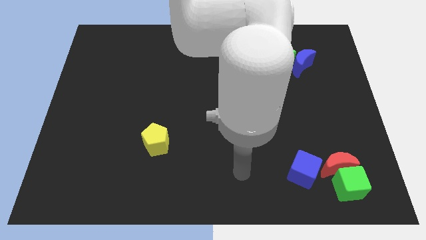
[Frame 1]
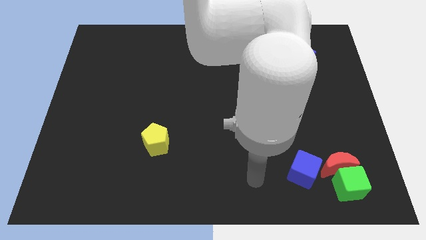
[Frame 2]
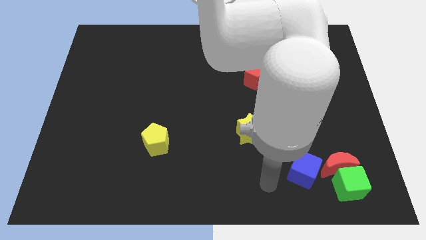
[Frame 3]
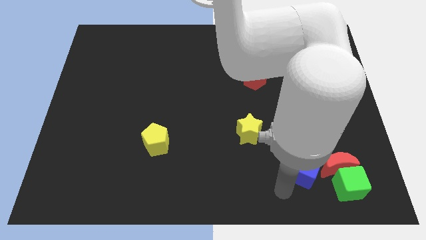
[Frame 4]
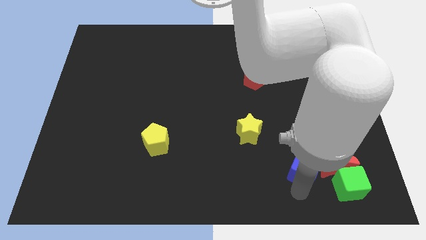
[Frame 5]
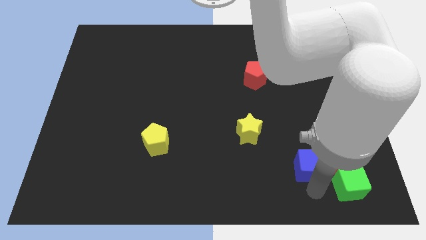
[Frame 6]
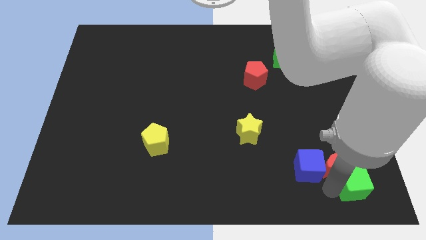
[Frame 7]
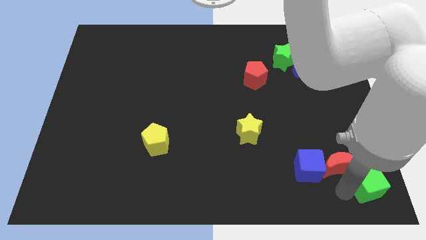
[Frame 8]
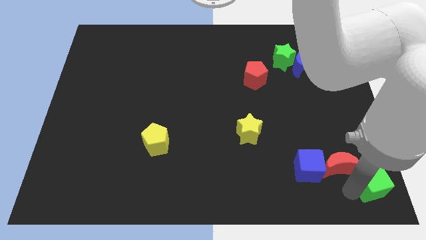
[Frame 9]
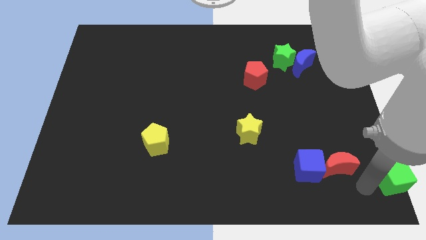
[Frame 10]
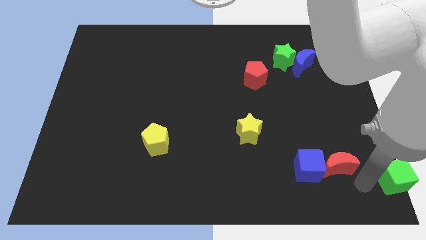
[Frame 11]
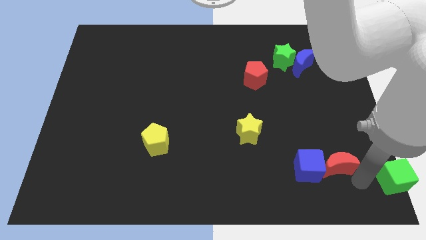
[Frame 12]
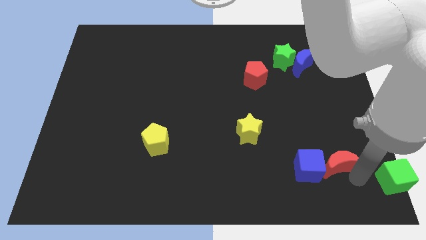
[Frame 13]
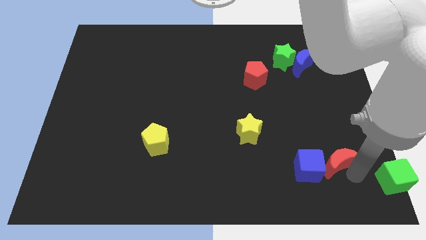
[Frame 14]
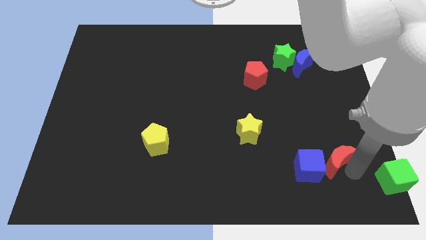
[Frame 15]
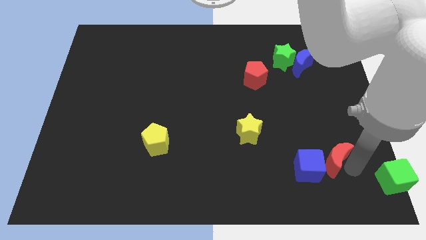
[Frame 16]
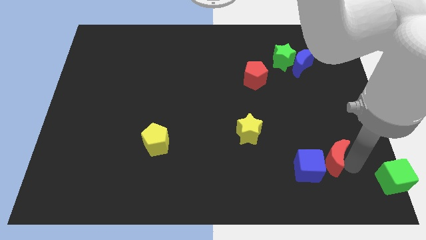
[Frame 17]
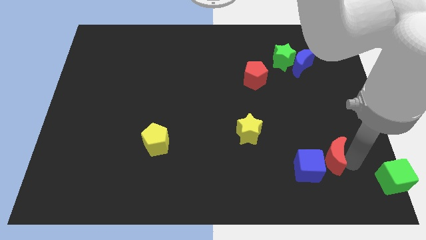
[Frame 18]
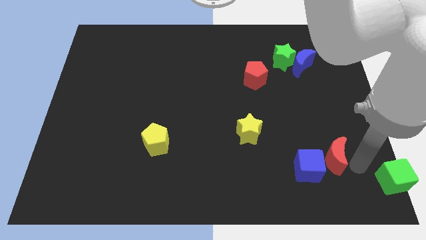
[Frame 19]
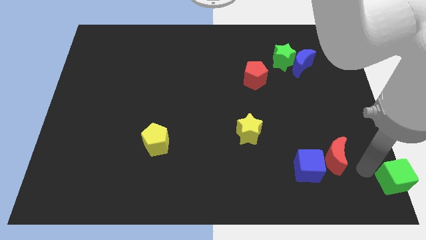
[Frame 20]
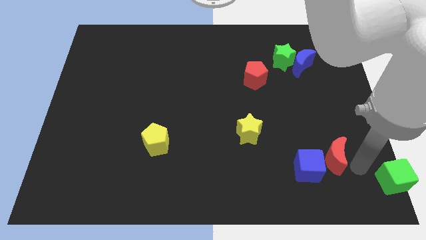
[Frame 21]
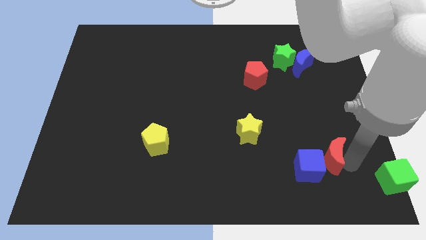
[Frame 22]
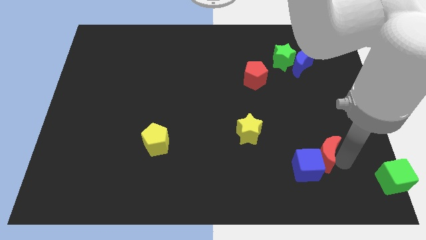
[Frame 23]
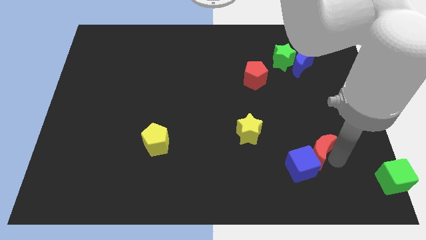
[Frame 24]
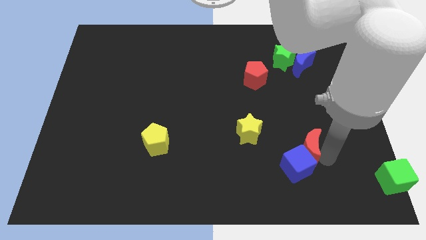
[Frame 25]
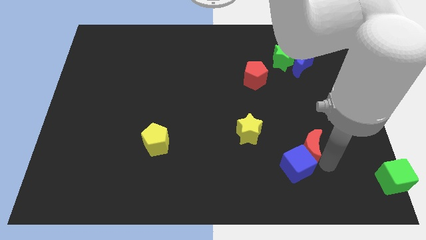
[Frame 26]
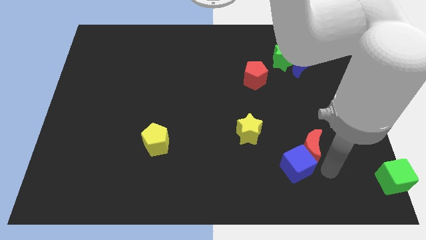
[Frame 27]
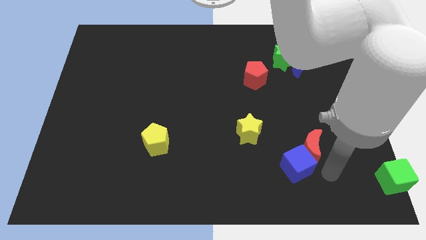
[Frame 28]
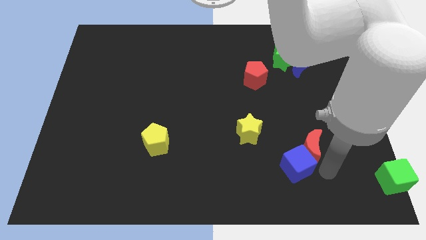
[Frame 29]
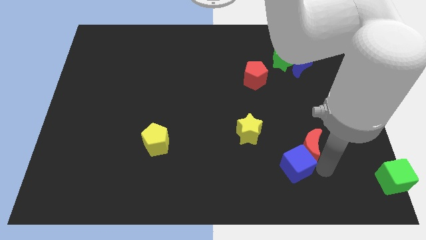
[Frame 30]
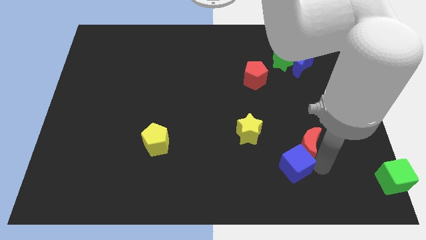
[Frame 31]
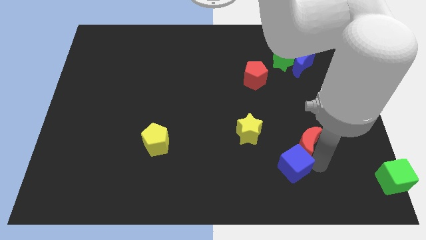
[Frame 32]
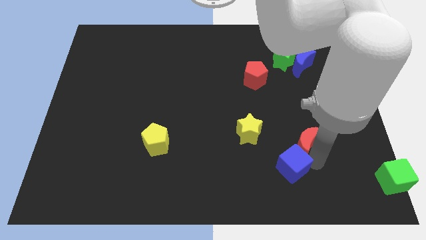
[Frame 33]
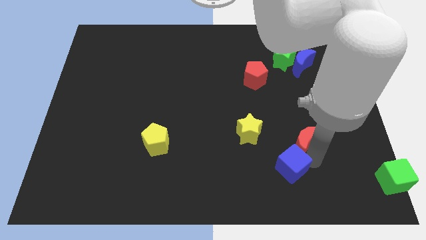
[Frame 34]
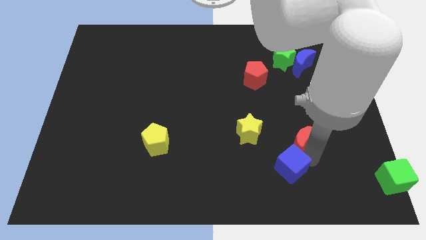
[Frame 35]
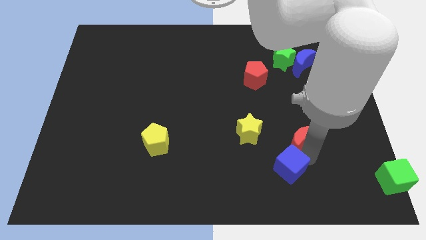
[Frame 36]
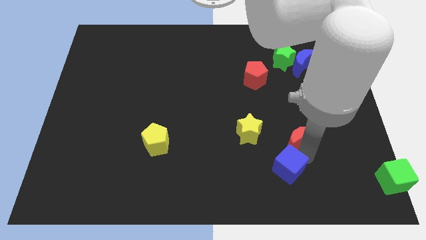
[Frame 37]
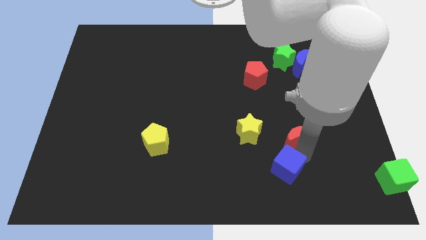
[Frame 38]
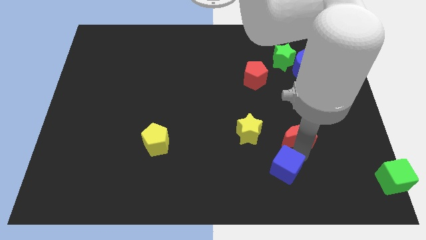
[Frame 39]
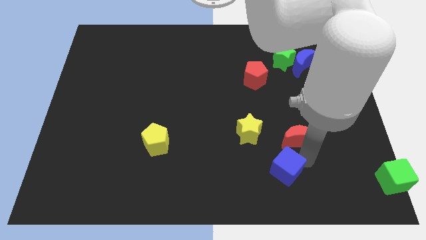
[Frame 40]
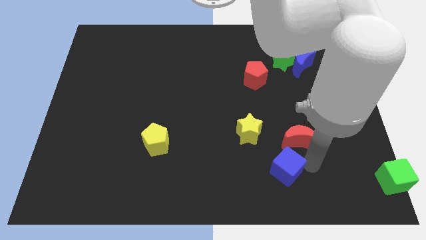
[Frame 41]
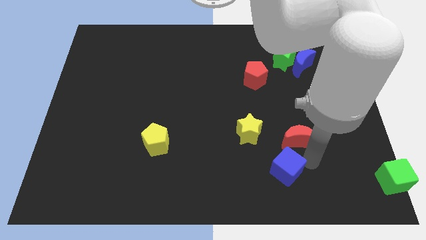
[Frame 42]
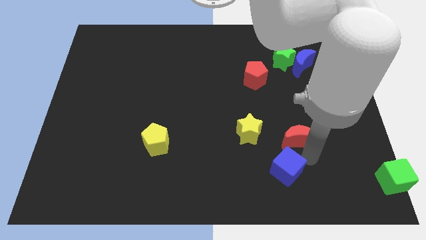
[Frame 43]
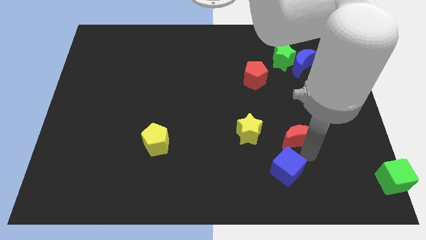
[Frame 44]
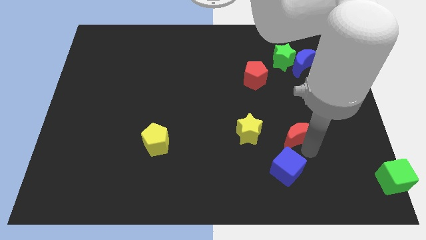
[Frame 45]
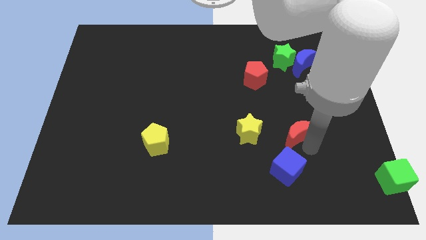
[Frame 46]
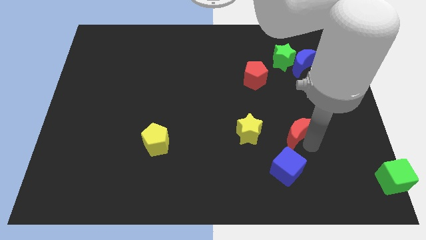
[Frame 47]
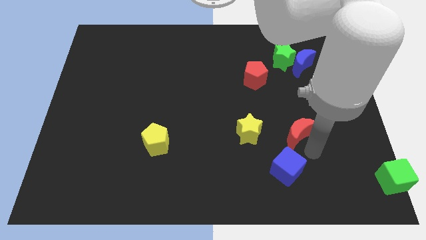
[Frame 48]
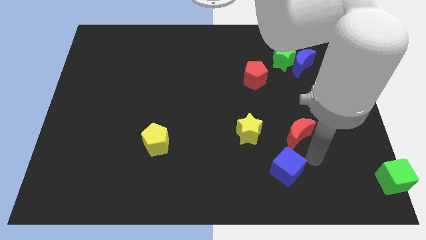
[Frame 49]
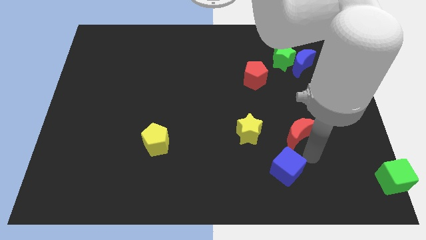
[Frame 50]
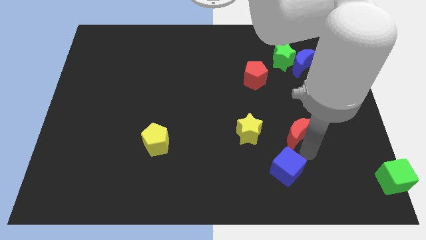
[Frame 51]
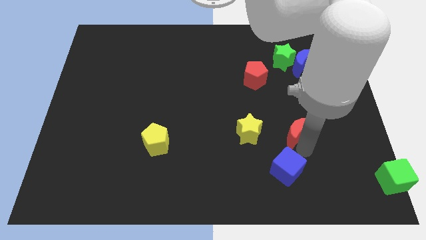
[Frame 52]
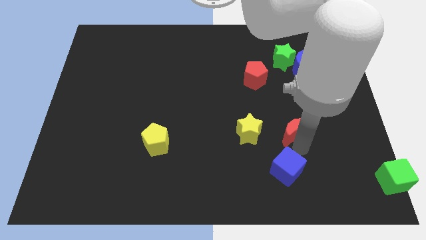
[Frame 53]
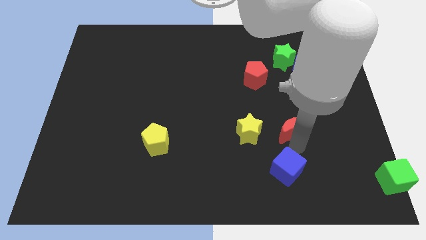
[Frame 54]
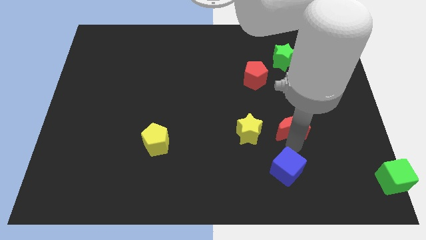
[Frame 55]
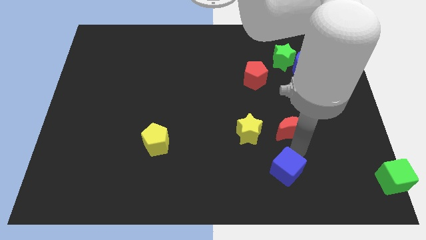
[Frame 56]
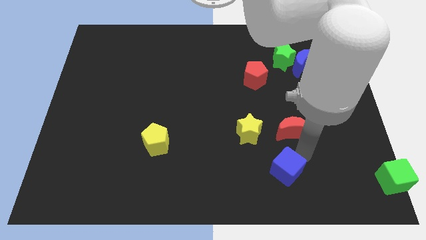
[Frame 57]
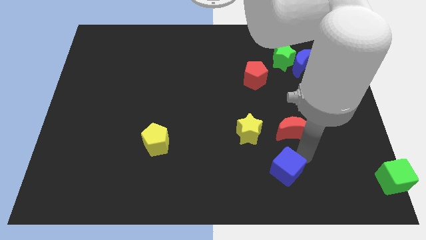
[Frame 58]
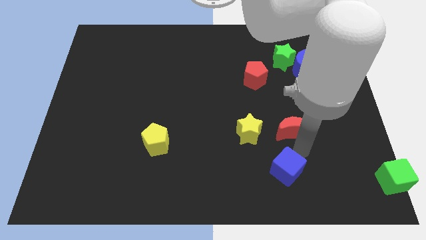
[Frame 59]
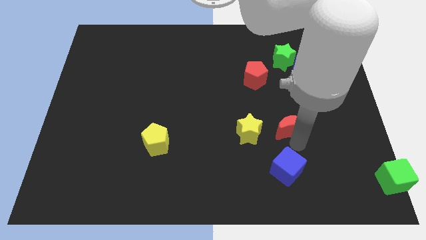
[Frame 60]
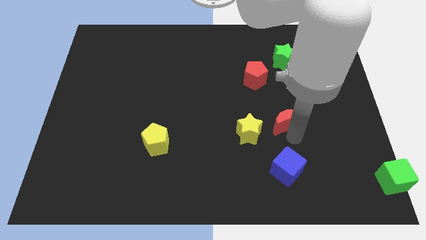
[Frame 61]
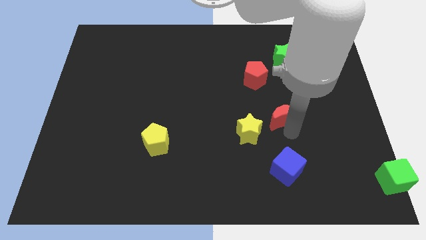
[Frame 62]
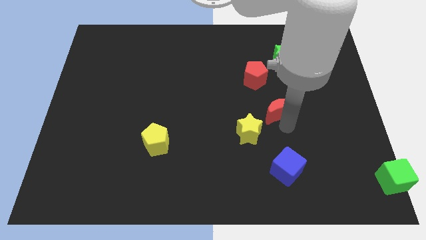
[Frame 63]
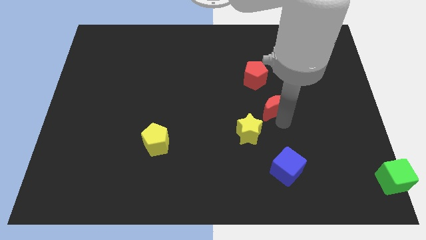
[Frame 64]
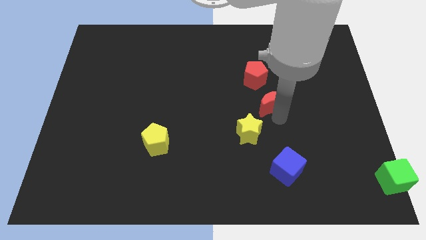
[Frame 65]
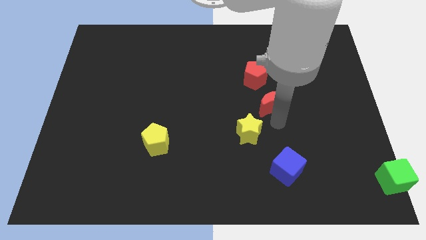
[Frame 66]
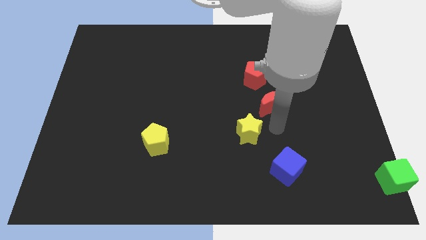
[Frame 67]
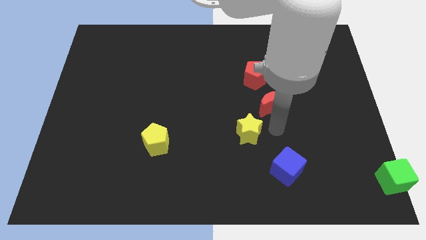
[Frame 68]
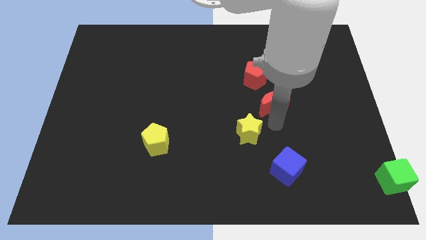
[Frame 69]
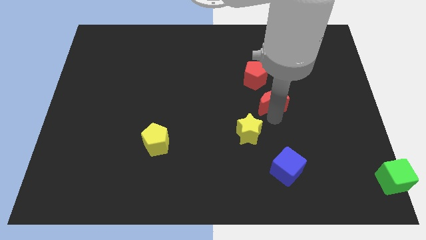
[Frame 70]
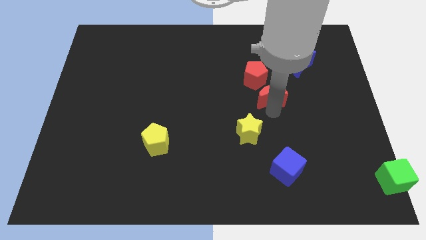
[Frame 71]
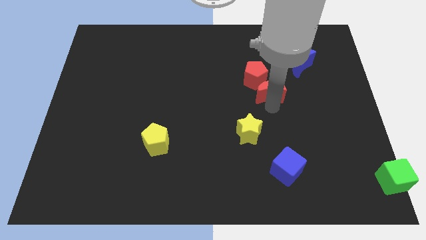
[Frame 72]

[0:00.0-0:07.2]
put the red moon close to the red pentagon

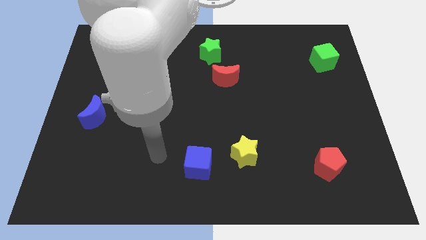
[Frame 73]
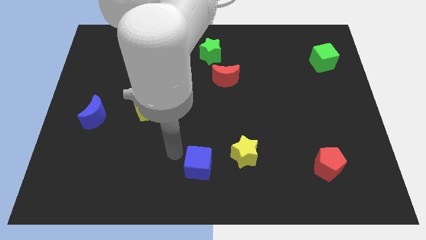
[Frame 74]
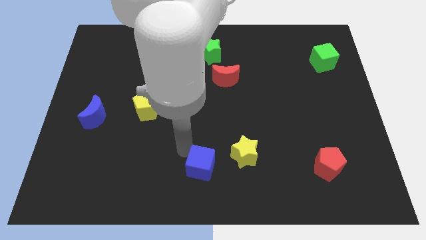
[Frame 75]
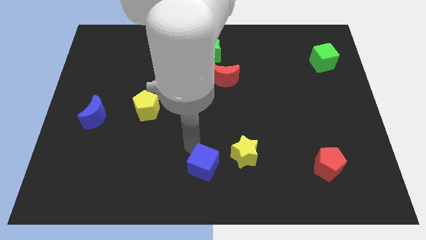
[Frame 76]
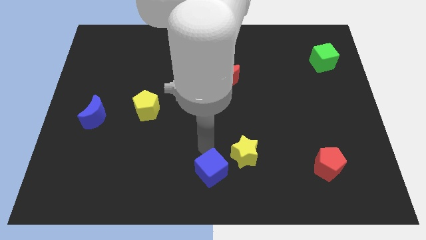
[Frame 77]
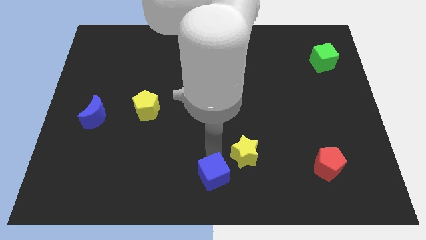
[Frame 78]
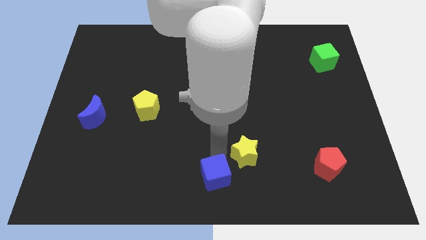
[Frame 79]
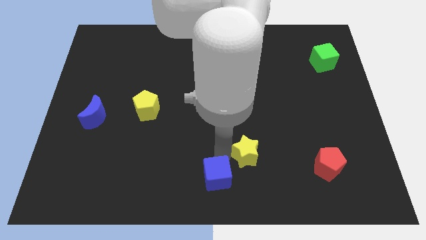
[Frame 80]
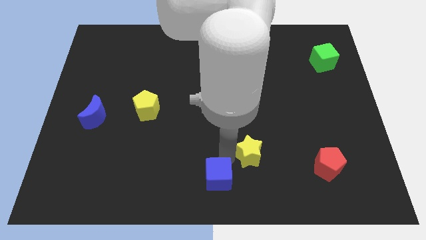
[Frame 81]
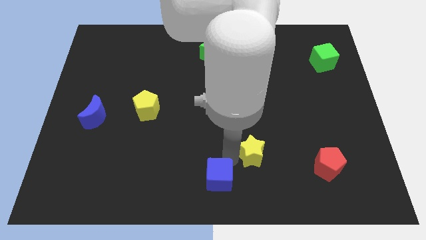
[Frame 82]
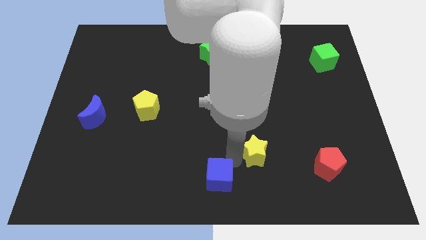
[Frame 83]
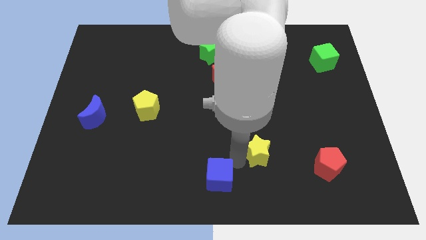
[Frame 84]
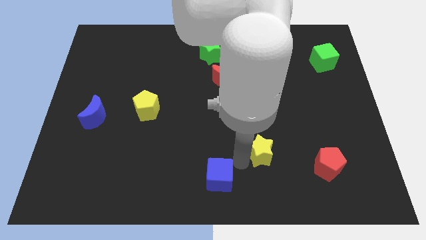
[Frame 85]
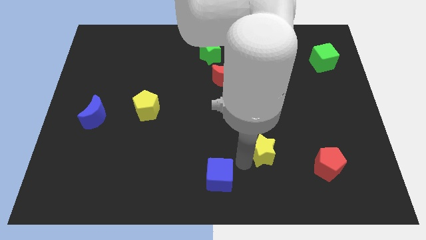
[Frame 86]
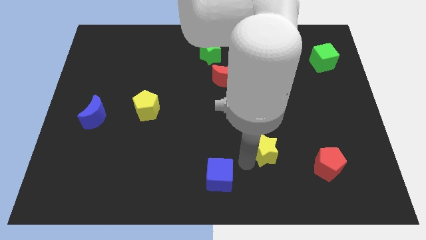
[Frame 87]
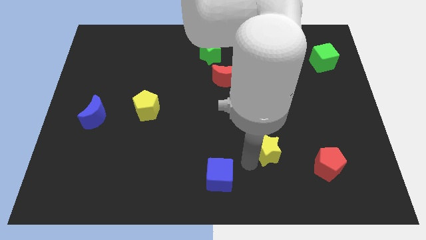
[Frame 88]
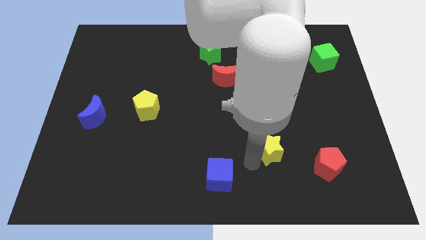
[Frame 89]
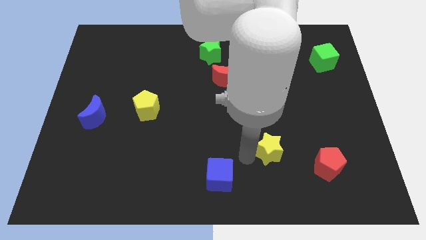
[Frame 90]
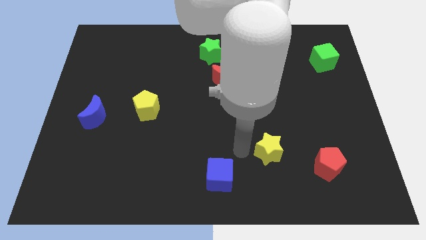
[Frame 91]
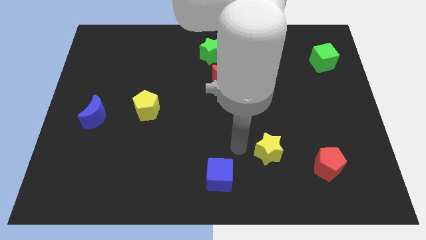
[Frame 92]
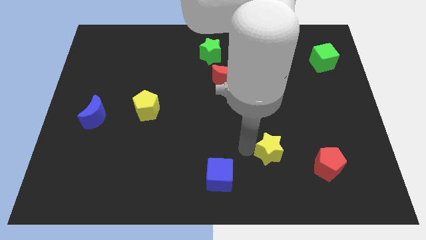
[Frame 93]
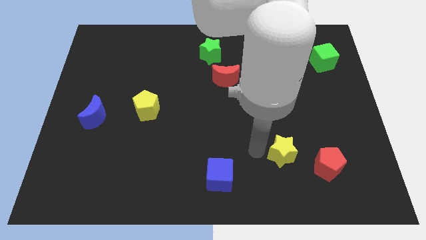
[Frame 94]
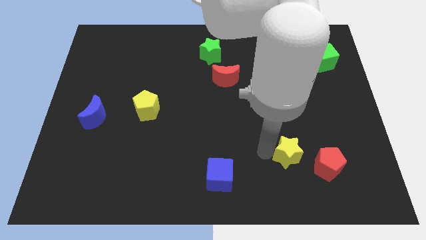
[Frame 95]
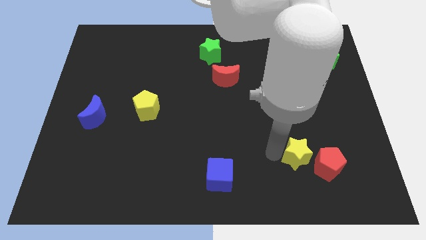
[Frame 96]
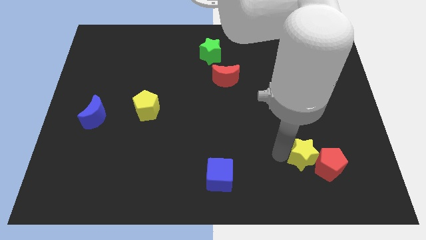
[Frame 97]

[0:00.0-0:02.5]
put the yellow star close to the red pentagon
